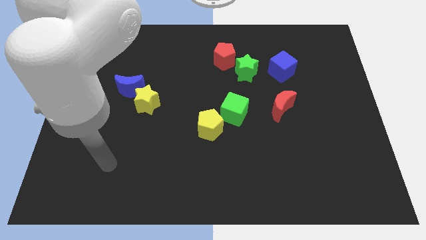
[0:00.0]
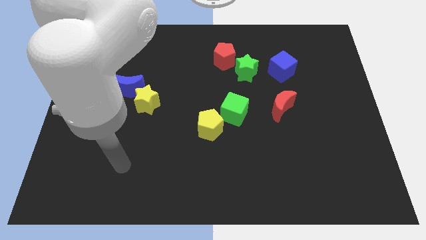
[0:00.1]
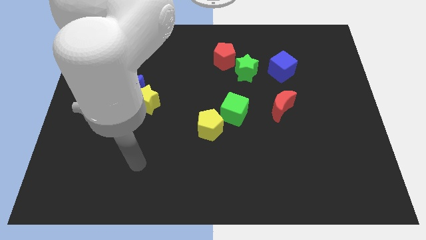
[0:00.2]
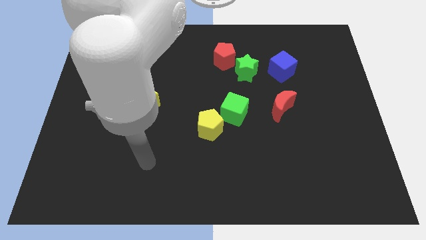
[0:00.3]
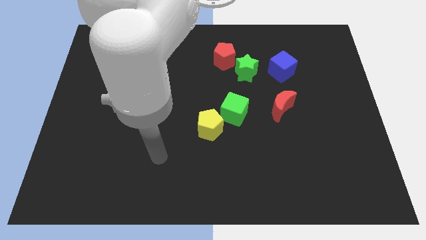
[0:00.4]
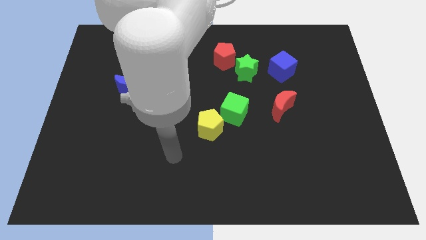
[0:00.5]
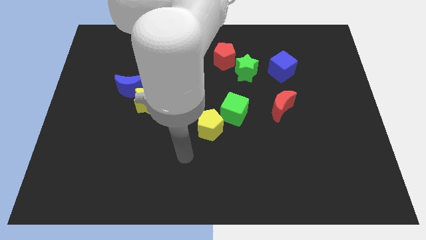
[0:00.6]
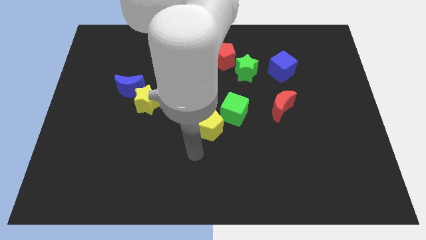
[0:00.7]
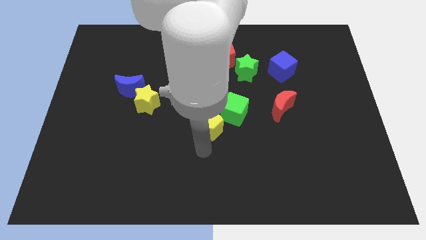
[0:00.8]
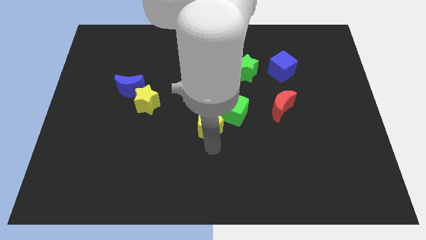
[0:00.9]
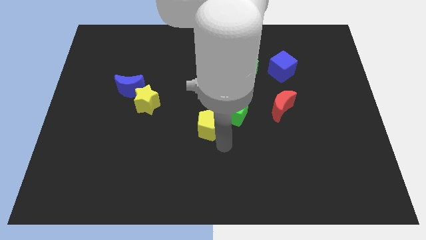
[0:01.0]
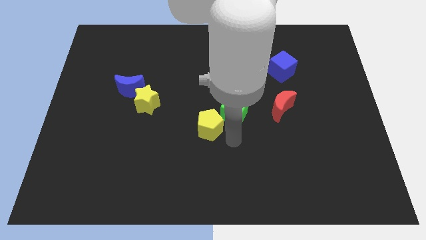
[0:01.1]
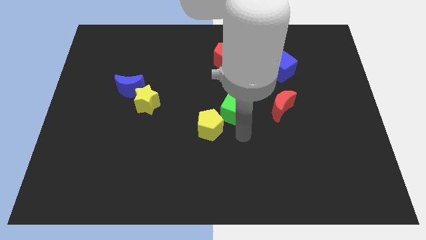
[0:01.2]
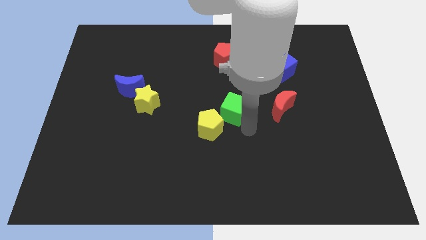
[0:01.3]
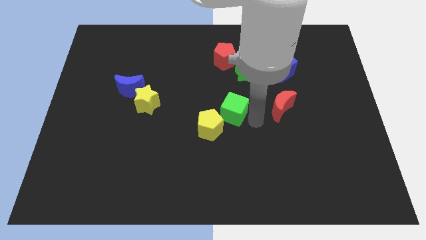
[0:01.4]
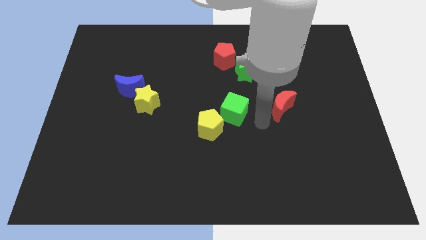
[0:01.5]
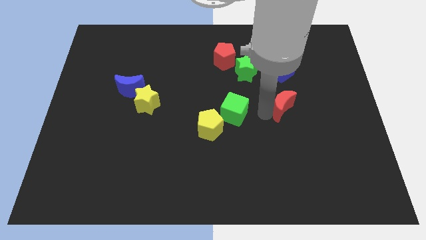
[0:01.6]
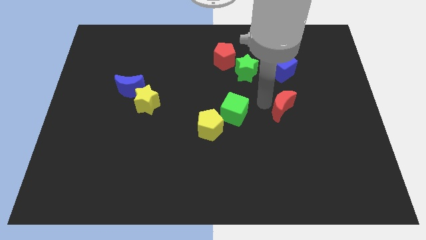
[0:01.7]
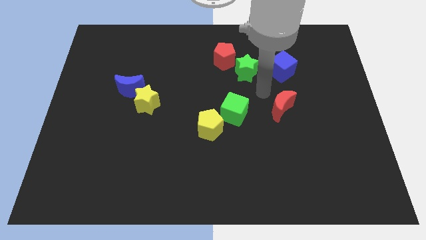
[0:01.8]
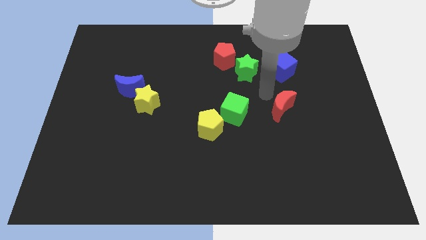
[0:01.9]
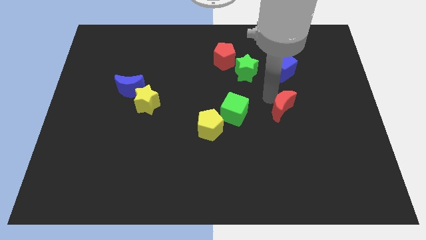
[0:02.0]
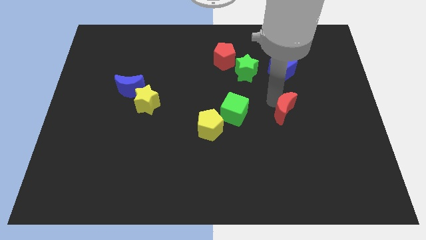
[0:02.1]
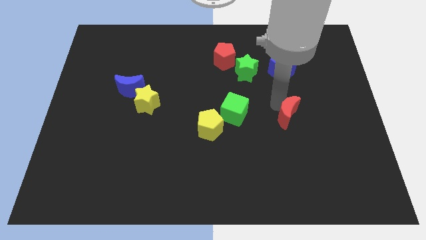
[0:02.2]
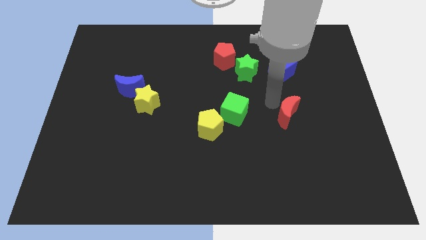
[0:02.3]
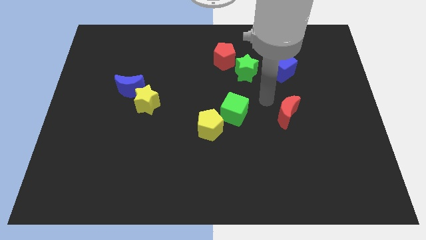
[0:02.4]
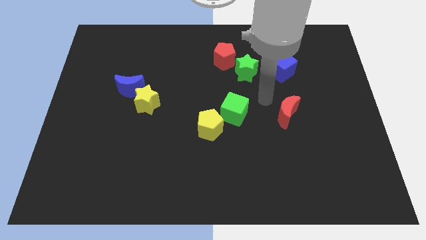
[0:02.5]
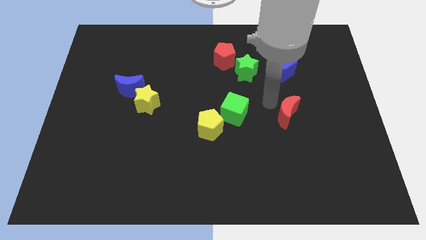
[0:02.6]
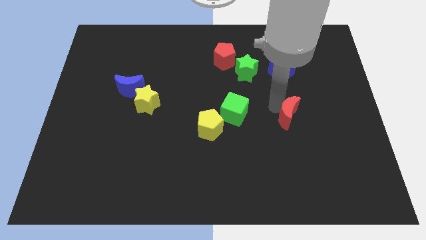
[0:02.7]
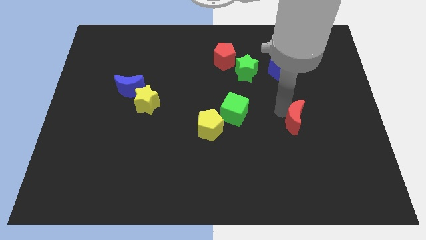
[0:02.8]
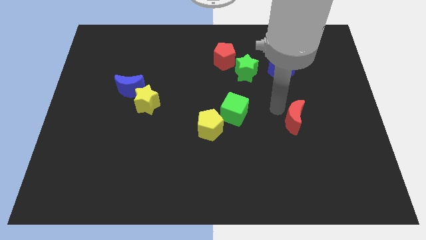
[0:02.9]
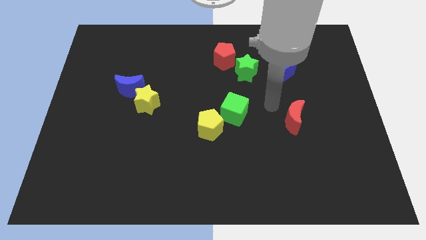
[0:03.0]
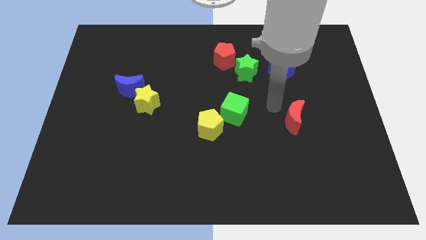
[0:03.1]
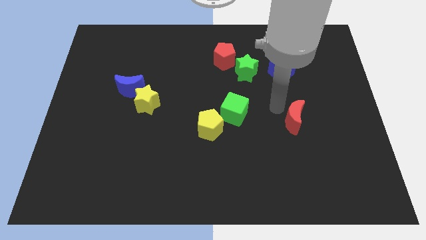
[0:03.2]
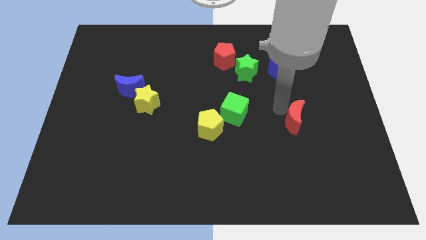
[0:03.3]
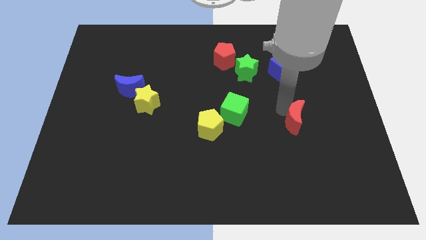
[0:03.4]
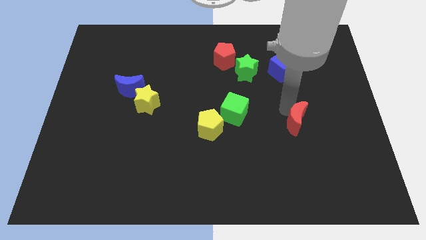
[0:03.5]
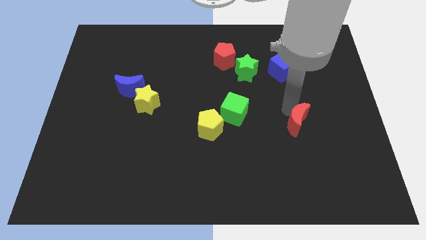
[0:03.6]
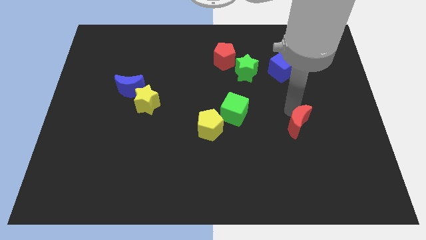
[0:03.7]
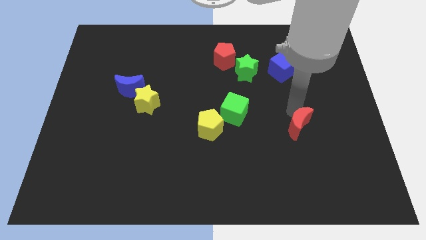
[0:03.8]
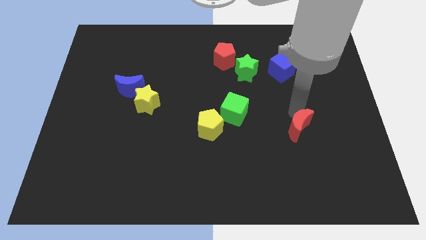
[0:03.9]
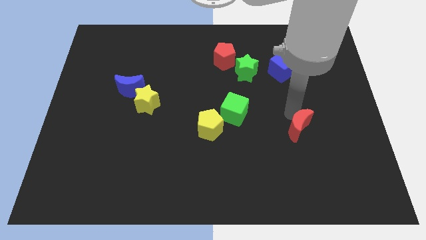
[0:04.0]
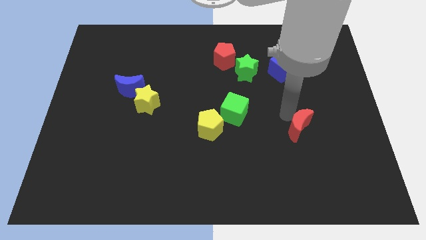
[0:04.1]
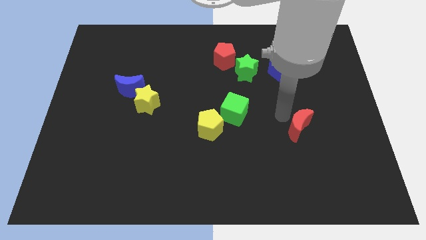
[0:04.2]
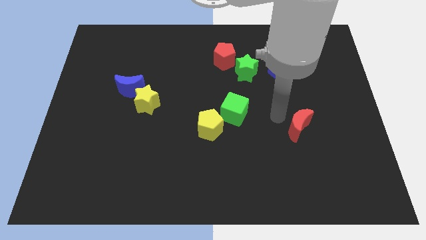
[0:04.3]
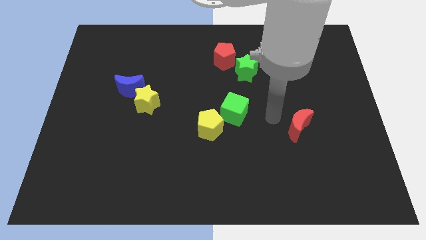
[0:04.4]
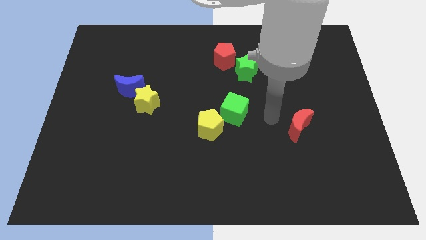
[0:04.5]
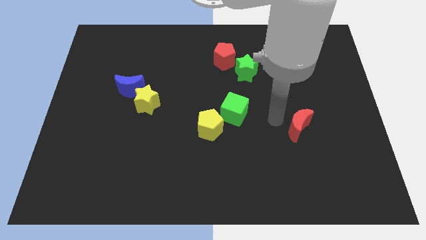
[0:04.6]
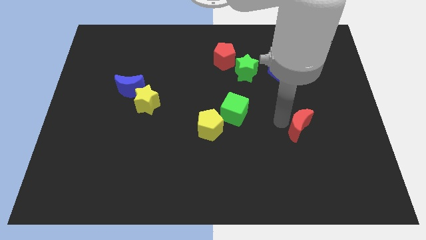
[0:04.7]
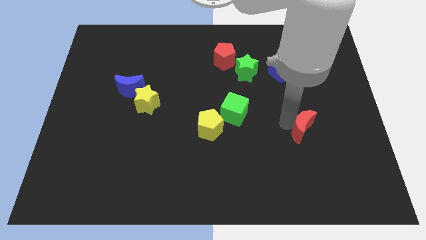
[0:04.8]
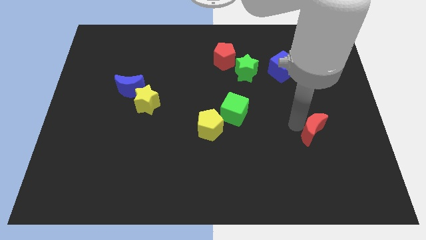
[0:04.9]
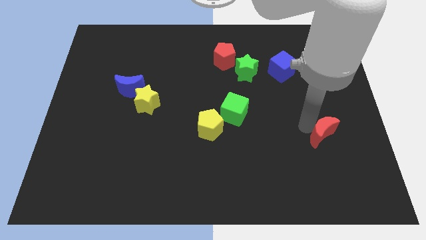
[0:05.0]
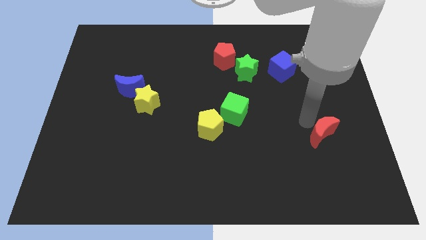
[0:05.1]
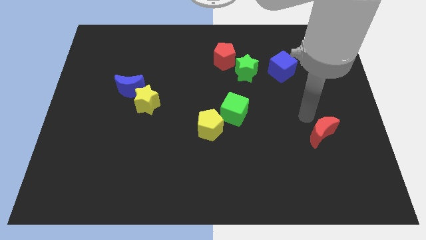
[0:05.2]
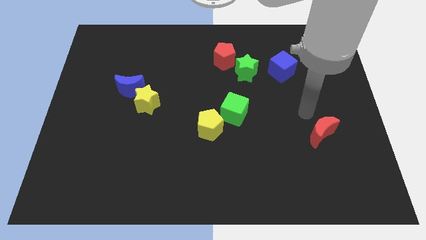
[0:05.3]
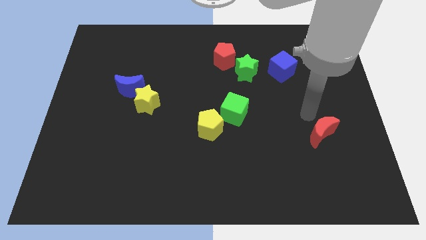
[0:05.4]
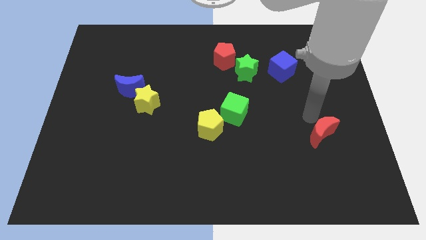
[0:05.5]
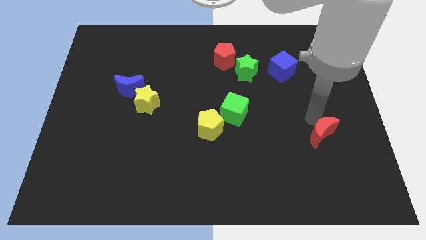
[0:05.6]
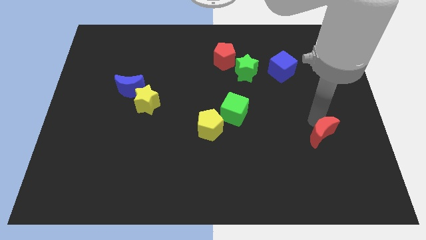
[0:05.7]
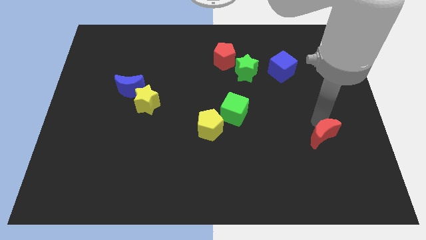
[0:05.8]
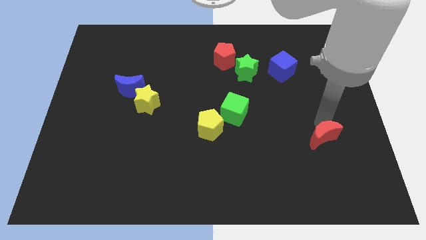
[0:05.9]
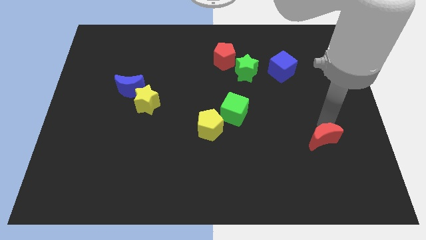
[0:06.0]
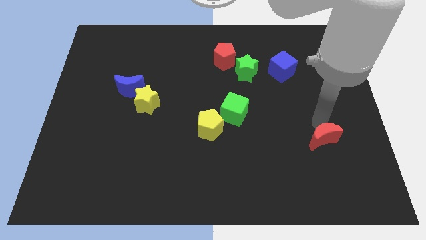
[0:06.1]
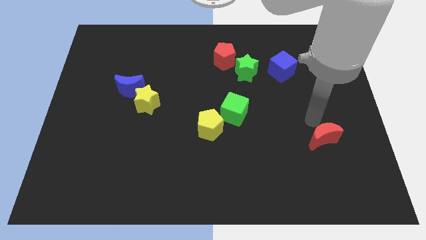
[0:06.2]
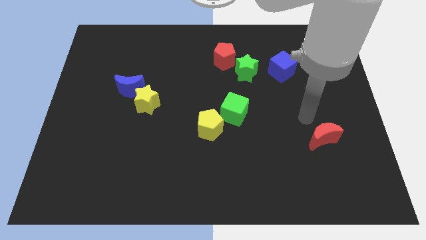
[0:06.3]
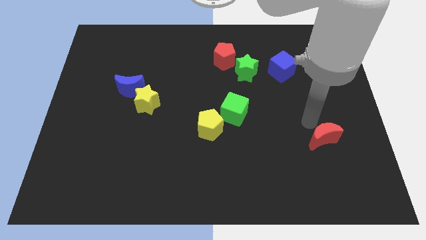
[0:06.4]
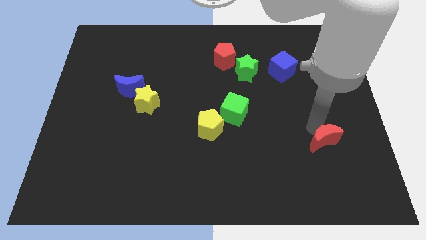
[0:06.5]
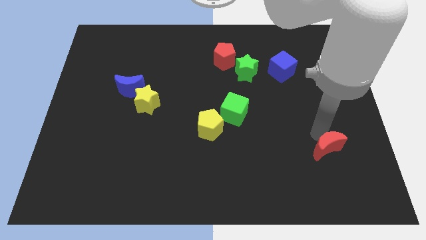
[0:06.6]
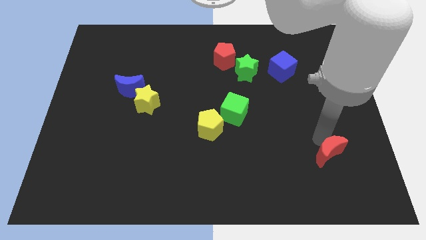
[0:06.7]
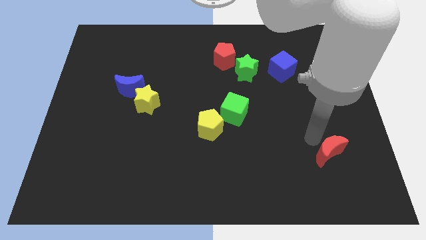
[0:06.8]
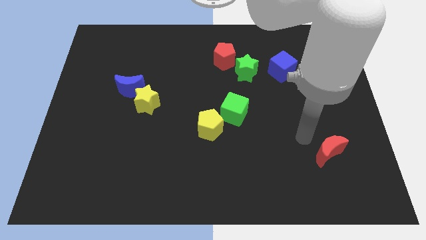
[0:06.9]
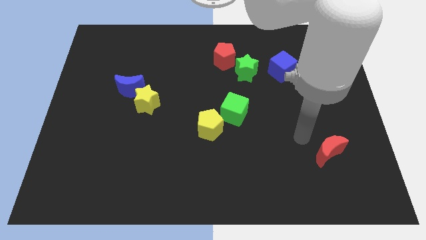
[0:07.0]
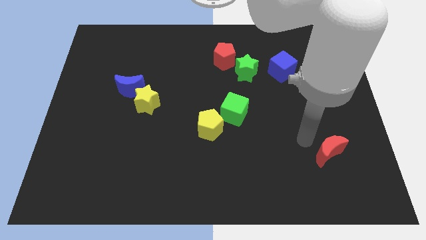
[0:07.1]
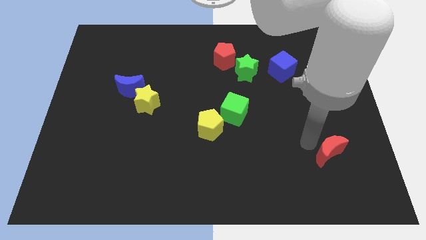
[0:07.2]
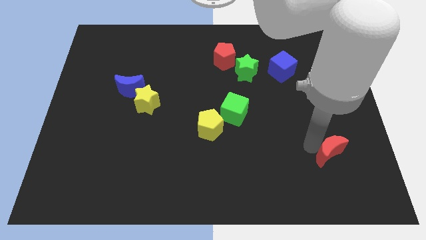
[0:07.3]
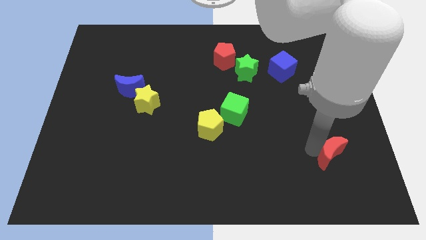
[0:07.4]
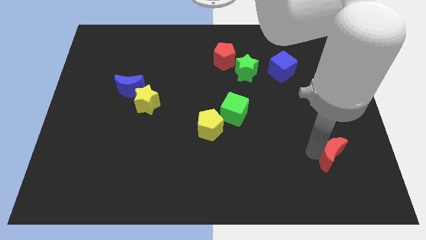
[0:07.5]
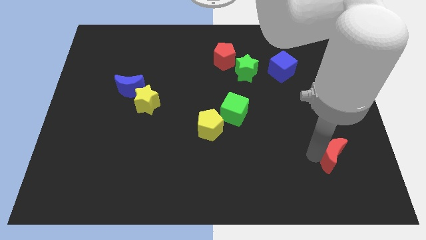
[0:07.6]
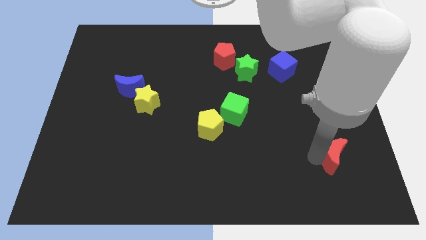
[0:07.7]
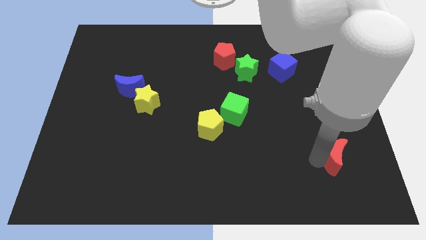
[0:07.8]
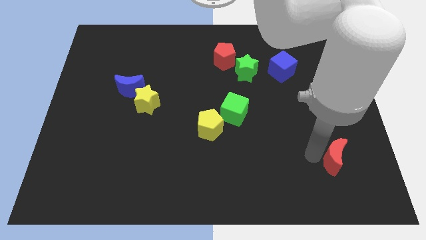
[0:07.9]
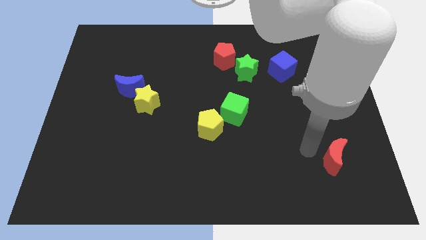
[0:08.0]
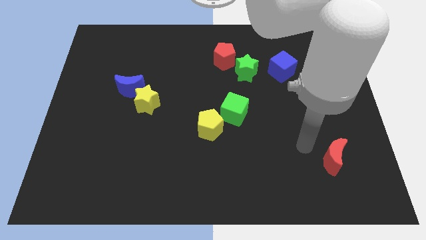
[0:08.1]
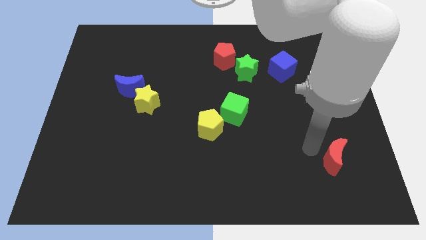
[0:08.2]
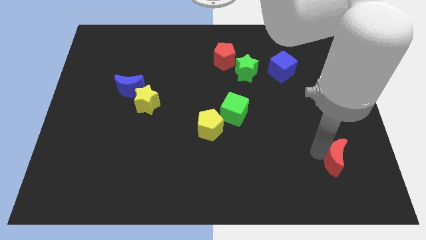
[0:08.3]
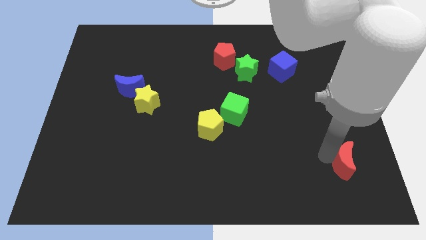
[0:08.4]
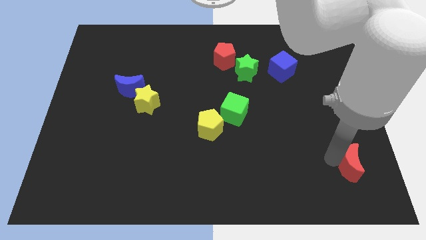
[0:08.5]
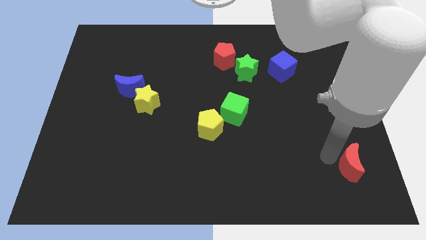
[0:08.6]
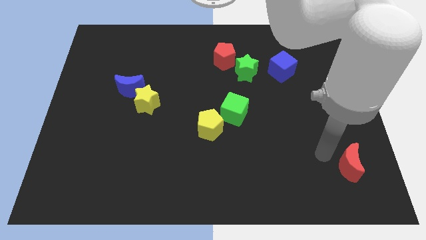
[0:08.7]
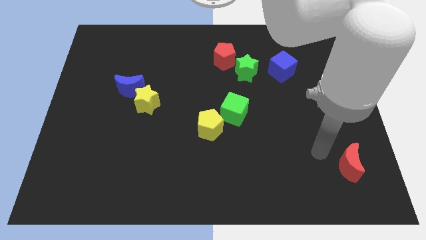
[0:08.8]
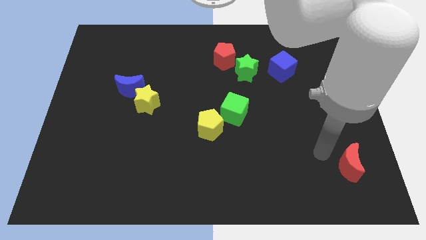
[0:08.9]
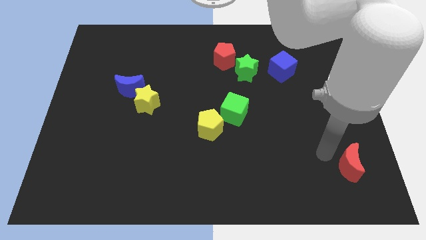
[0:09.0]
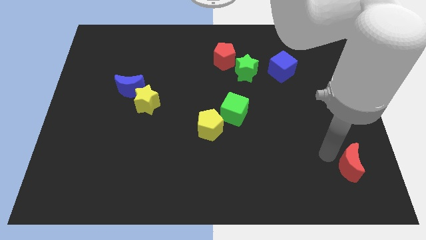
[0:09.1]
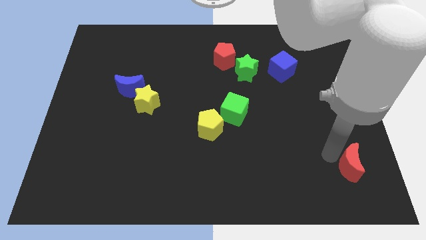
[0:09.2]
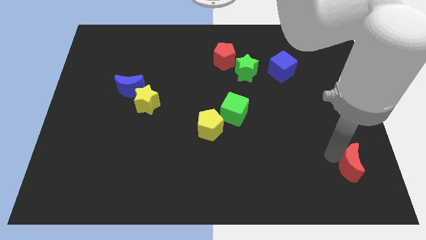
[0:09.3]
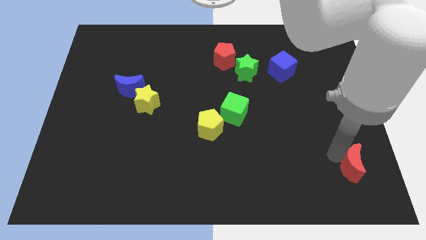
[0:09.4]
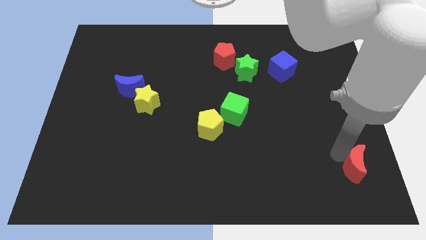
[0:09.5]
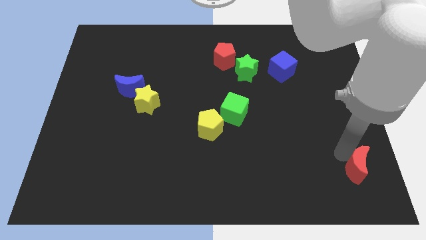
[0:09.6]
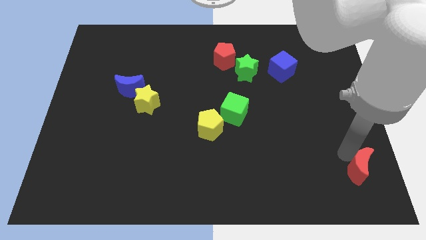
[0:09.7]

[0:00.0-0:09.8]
slide the red moon to the bottom right of the board
